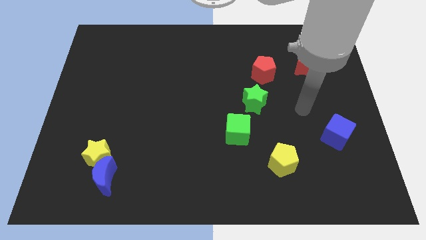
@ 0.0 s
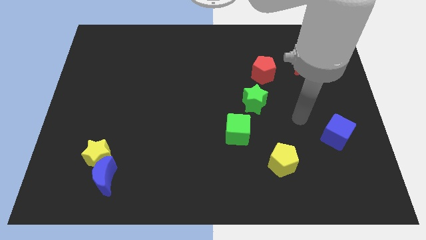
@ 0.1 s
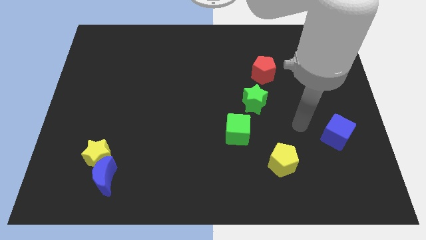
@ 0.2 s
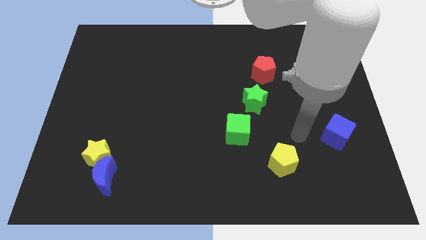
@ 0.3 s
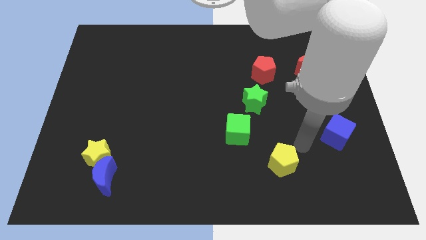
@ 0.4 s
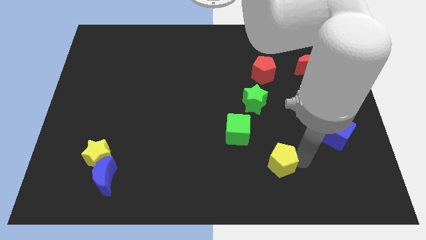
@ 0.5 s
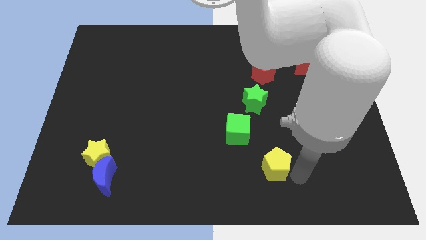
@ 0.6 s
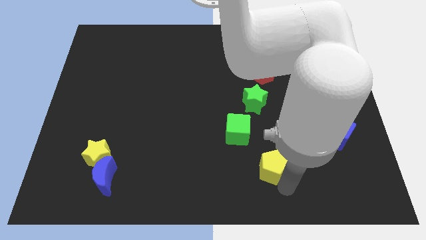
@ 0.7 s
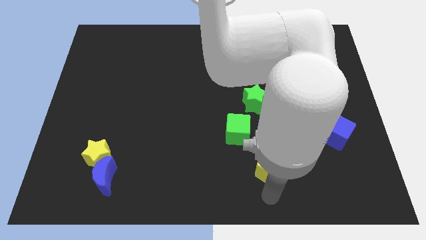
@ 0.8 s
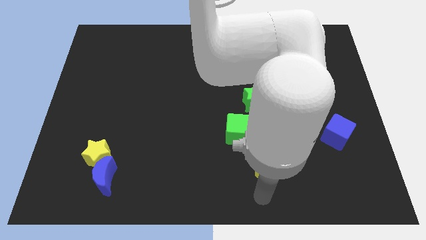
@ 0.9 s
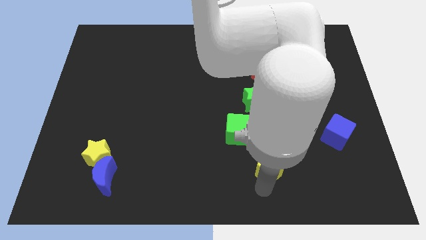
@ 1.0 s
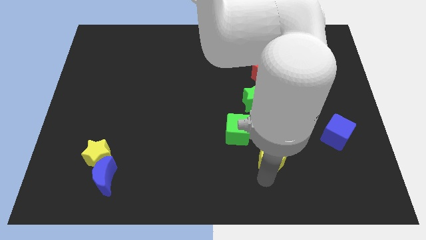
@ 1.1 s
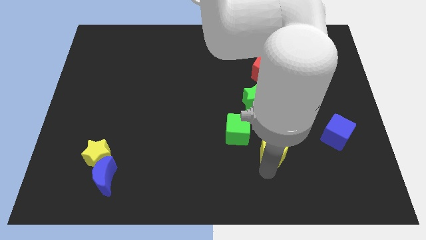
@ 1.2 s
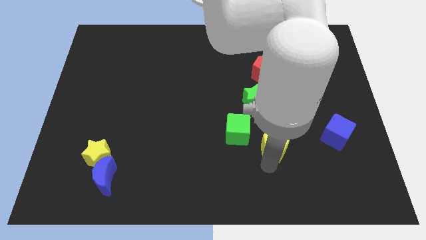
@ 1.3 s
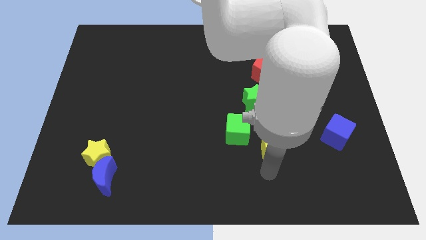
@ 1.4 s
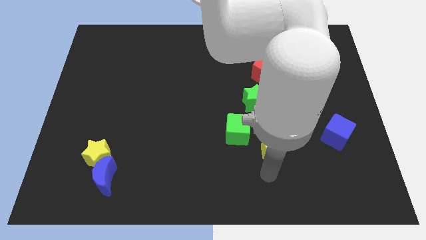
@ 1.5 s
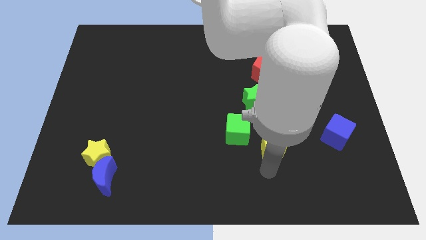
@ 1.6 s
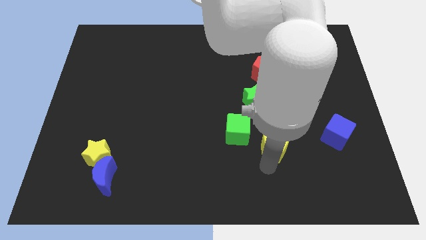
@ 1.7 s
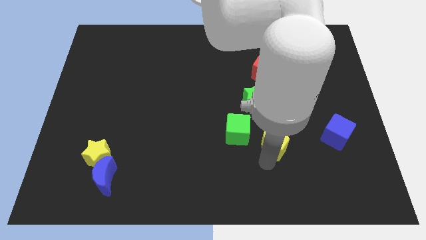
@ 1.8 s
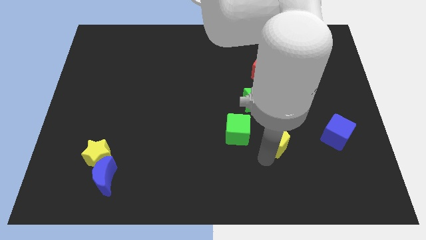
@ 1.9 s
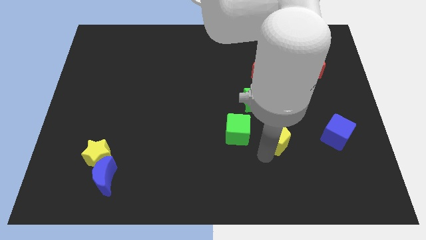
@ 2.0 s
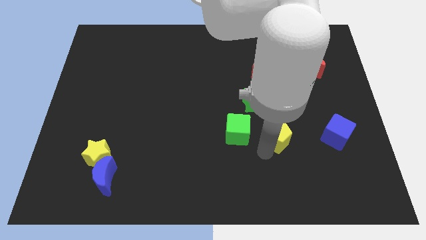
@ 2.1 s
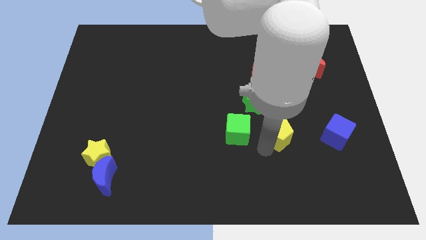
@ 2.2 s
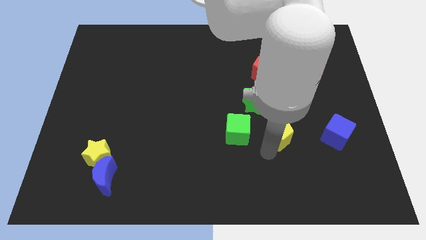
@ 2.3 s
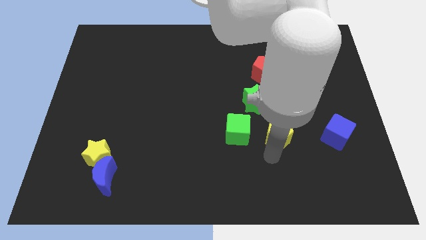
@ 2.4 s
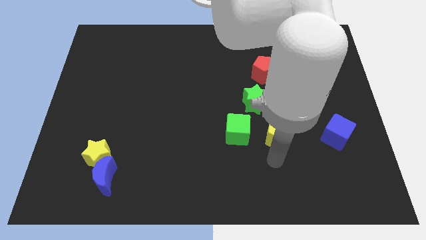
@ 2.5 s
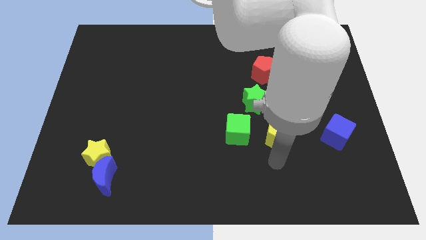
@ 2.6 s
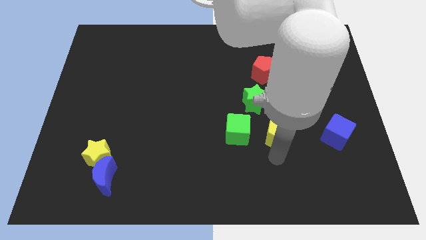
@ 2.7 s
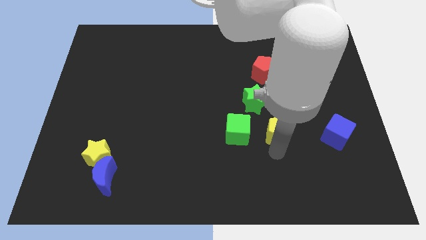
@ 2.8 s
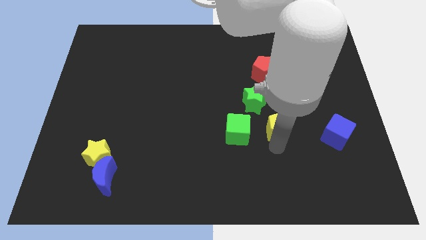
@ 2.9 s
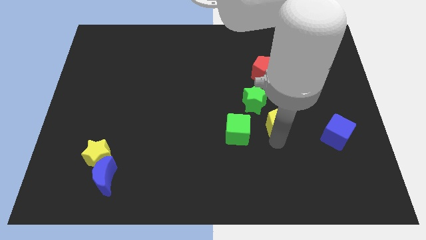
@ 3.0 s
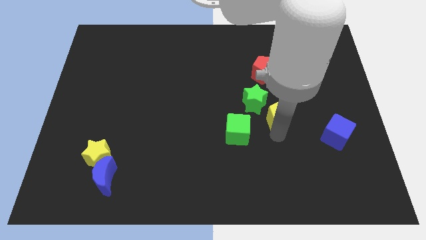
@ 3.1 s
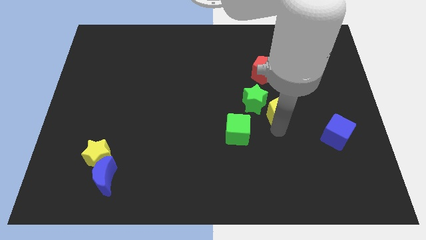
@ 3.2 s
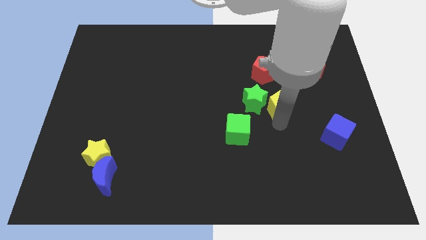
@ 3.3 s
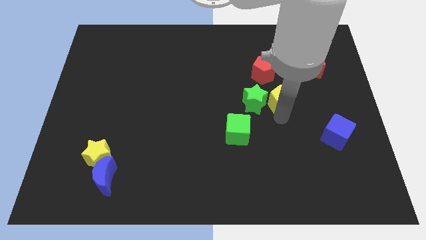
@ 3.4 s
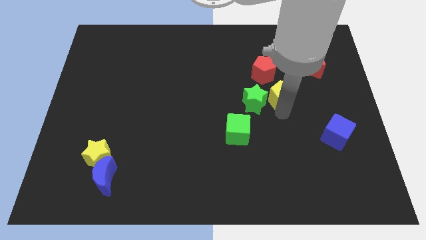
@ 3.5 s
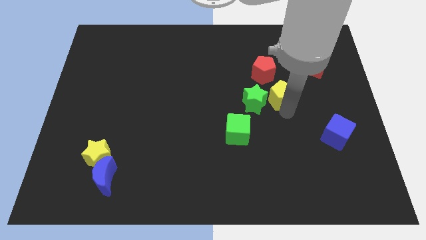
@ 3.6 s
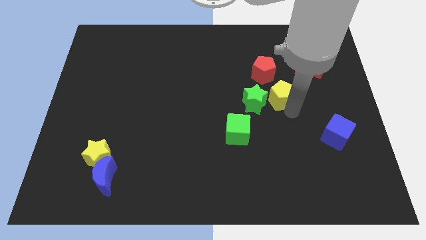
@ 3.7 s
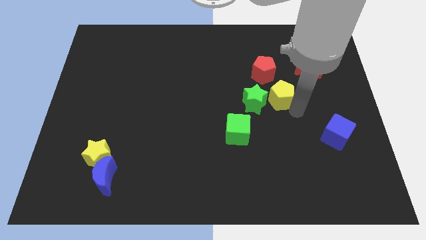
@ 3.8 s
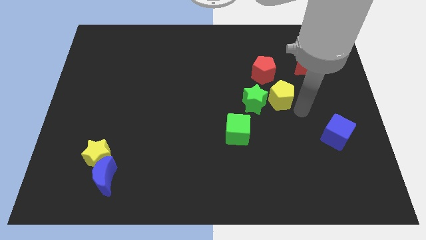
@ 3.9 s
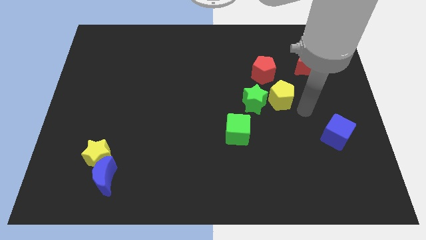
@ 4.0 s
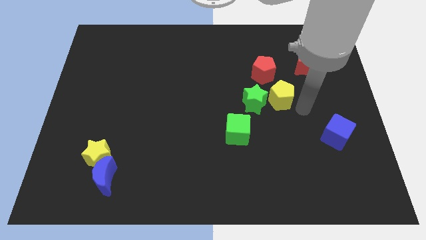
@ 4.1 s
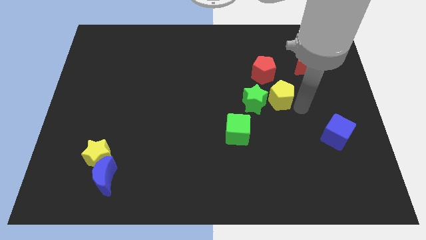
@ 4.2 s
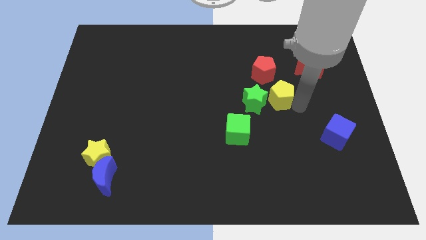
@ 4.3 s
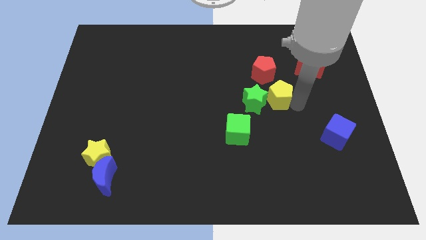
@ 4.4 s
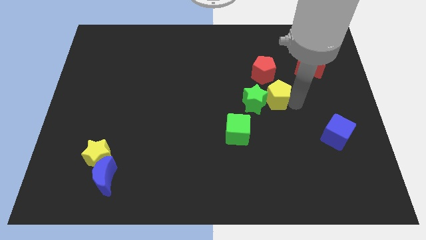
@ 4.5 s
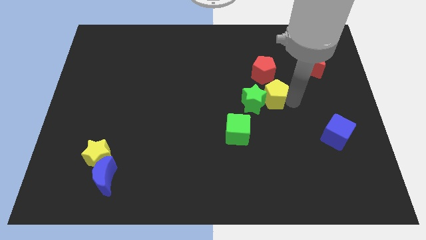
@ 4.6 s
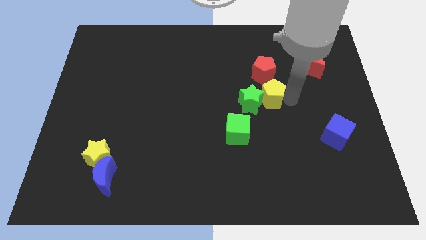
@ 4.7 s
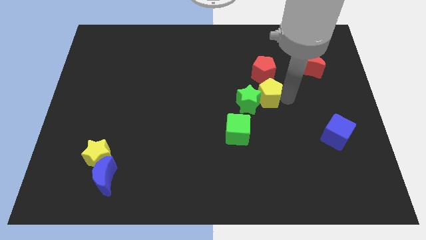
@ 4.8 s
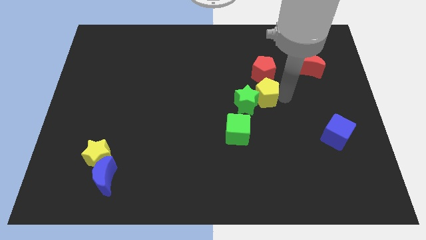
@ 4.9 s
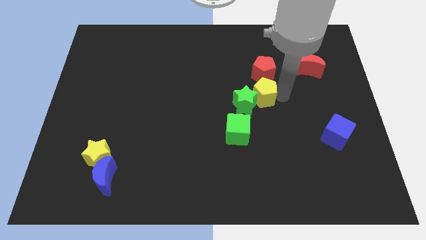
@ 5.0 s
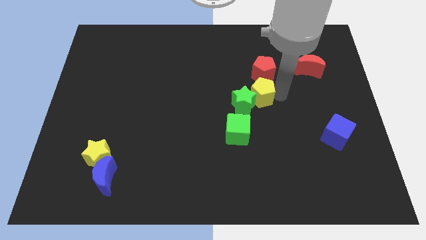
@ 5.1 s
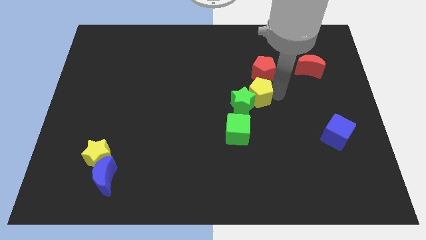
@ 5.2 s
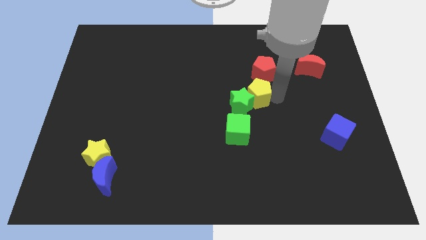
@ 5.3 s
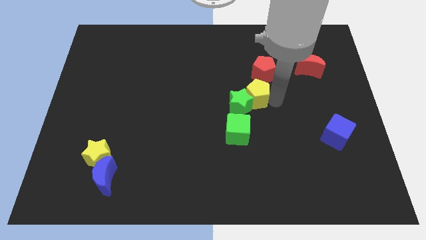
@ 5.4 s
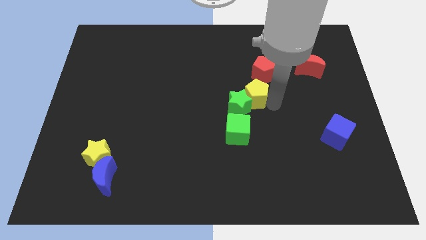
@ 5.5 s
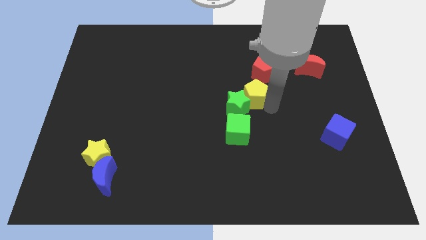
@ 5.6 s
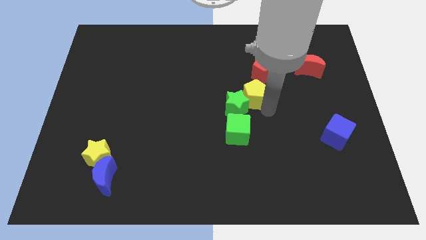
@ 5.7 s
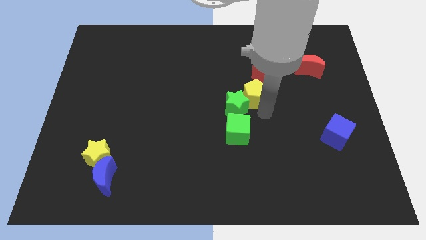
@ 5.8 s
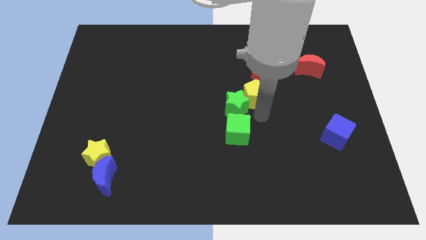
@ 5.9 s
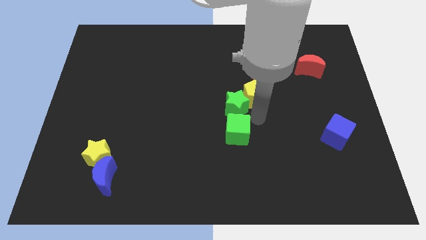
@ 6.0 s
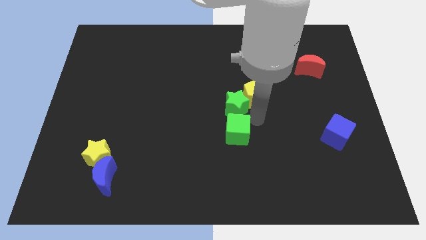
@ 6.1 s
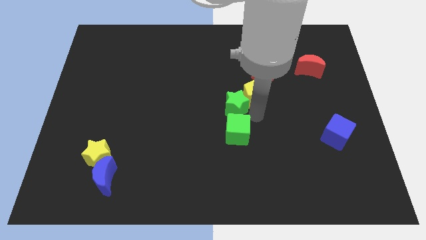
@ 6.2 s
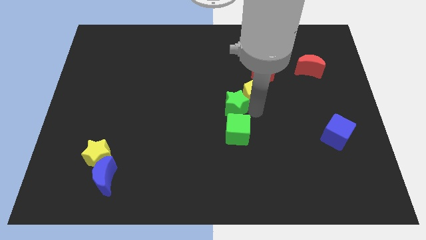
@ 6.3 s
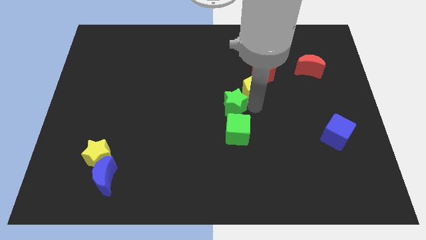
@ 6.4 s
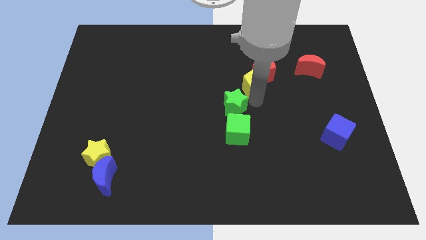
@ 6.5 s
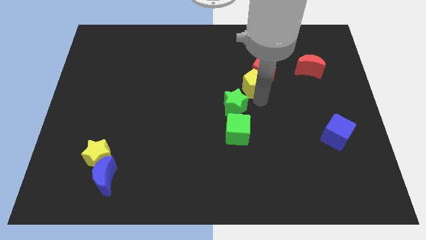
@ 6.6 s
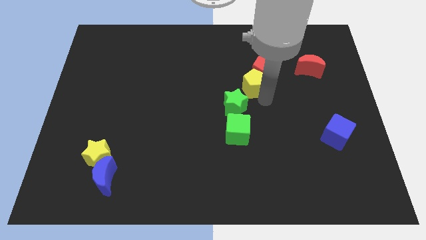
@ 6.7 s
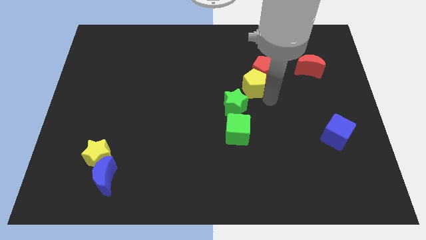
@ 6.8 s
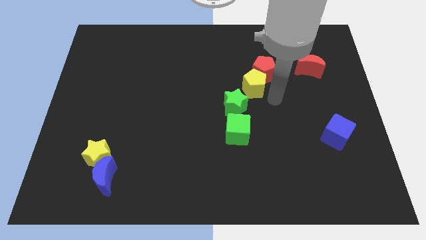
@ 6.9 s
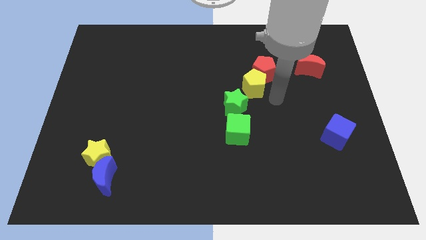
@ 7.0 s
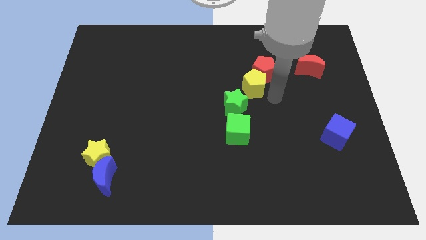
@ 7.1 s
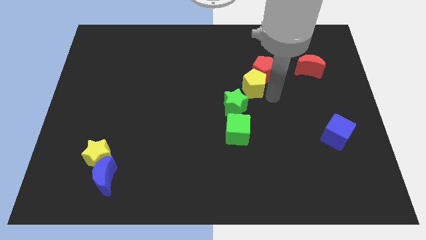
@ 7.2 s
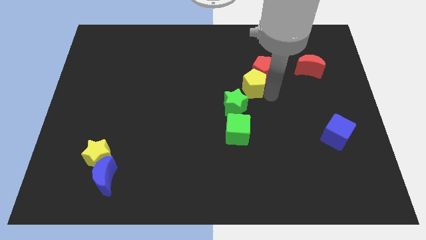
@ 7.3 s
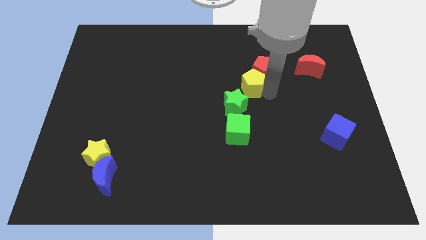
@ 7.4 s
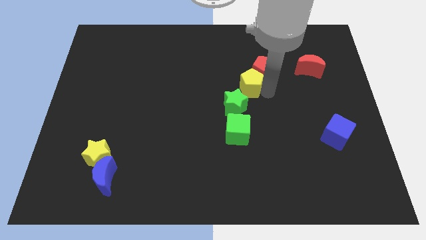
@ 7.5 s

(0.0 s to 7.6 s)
move the yellow pentagon just left of the red pentagon
